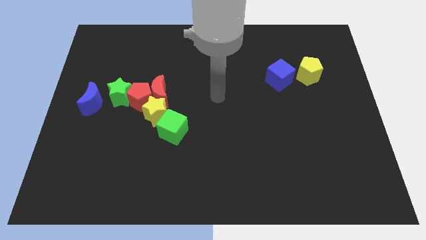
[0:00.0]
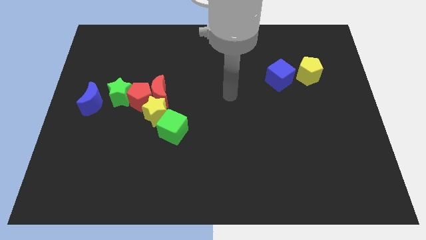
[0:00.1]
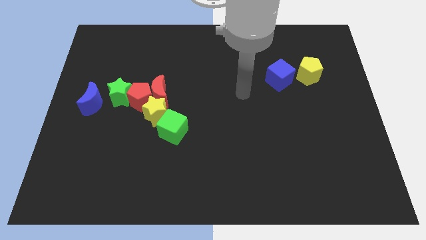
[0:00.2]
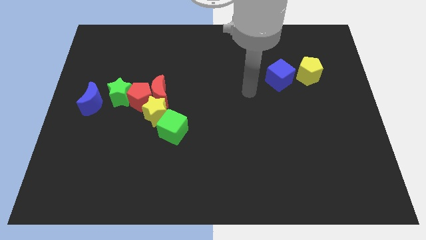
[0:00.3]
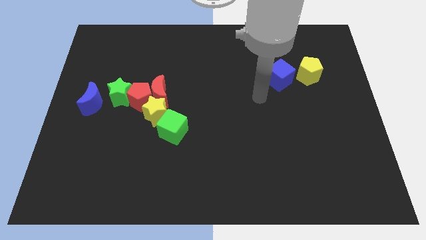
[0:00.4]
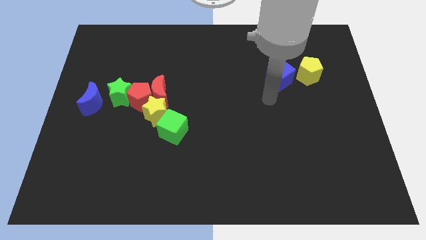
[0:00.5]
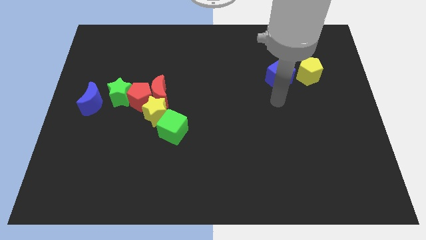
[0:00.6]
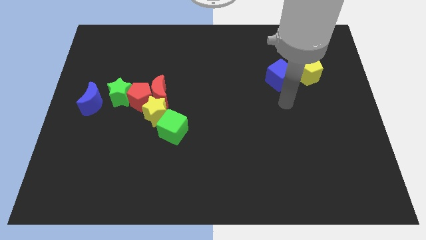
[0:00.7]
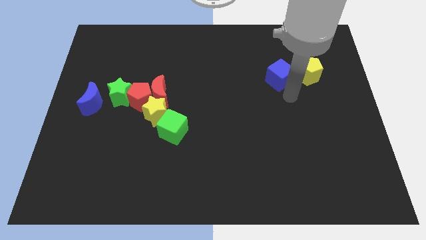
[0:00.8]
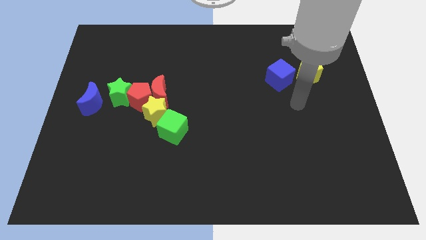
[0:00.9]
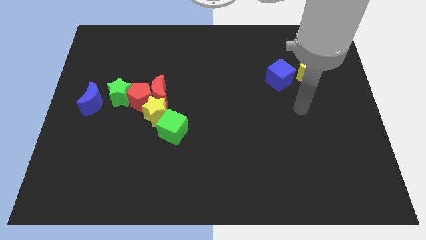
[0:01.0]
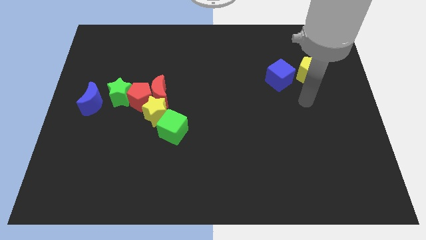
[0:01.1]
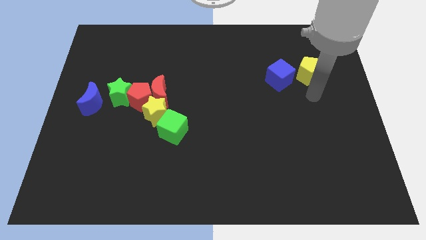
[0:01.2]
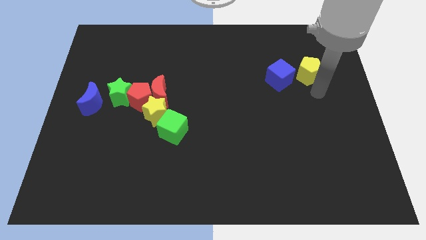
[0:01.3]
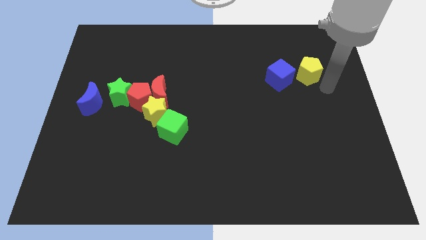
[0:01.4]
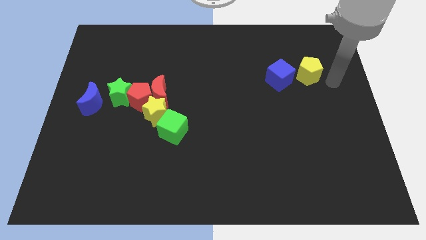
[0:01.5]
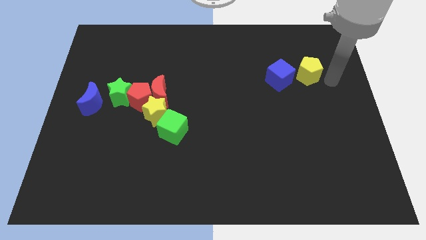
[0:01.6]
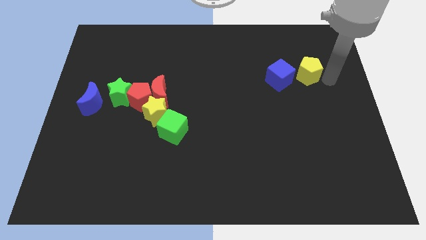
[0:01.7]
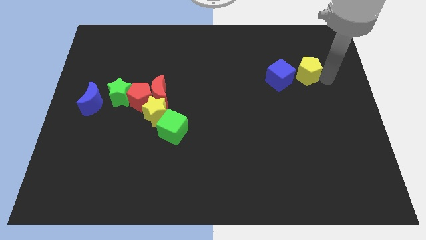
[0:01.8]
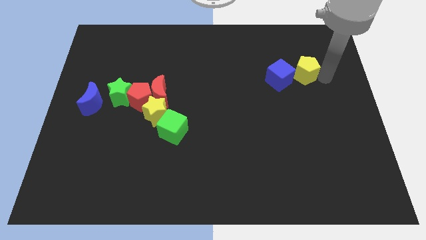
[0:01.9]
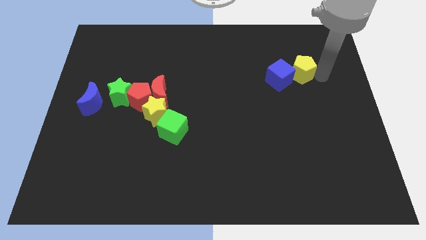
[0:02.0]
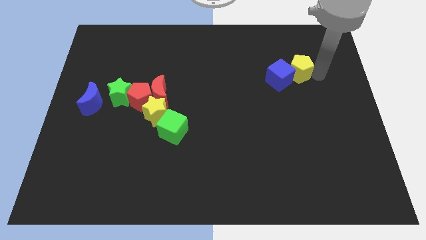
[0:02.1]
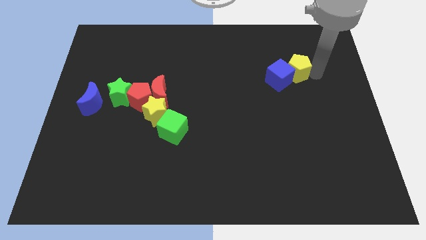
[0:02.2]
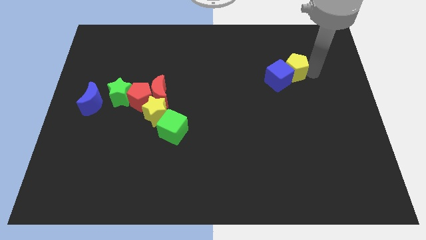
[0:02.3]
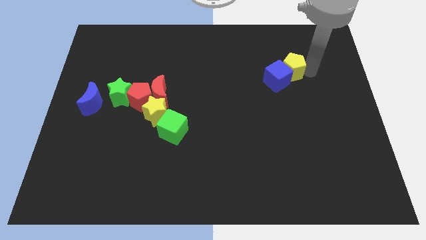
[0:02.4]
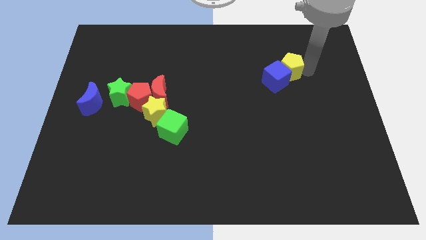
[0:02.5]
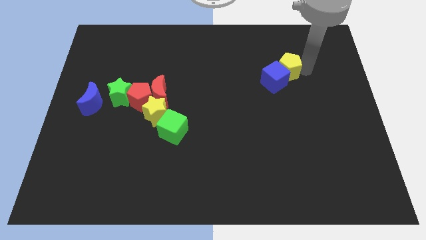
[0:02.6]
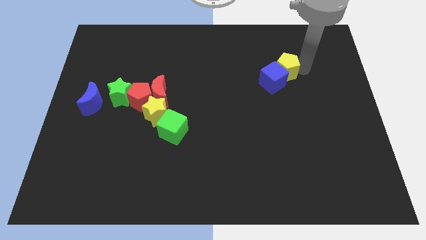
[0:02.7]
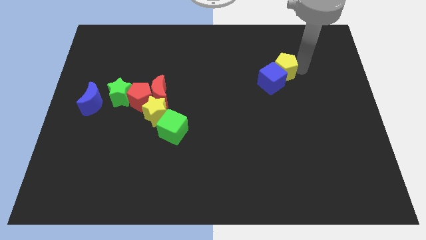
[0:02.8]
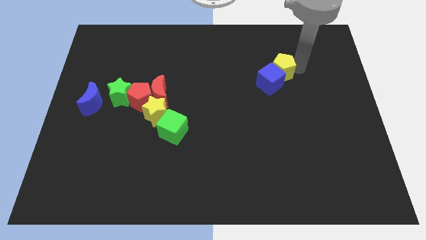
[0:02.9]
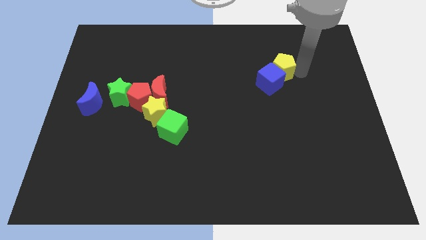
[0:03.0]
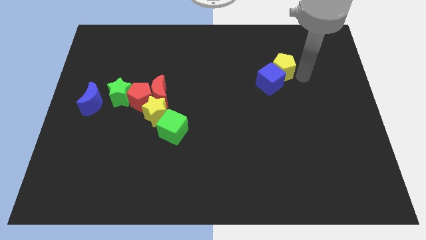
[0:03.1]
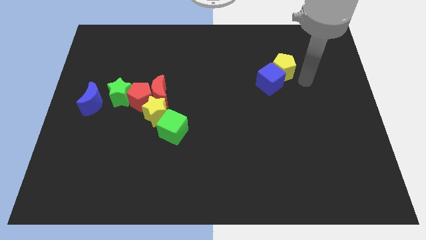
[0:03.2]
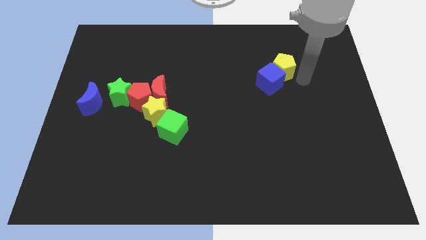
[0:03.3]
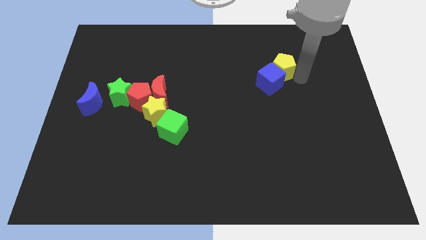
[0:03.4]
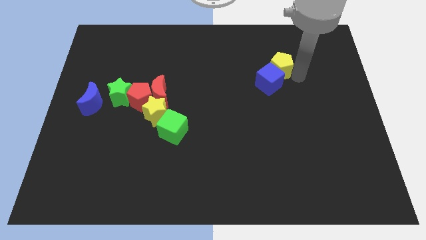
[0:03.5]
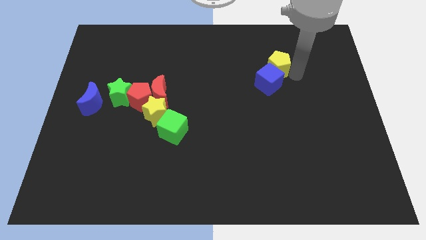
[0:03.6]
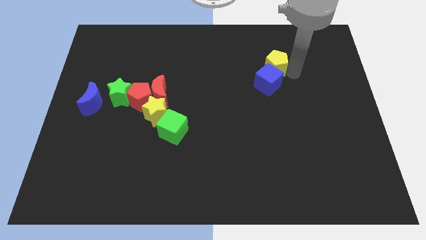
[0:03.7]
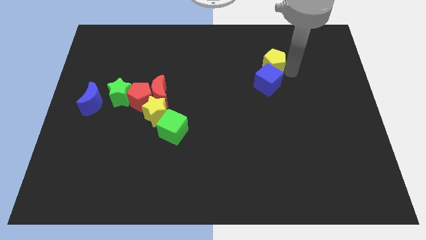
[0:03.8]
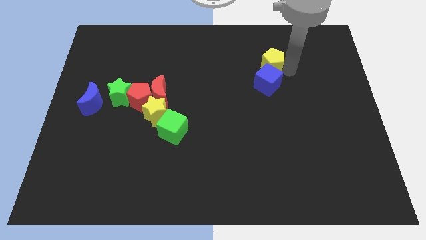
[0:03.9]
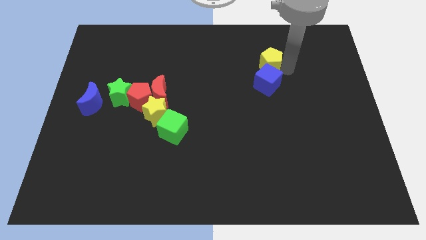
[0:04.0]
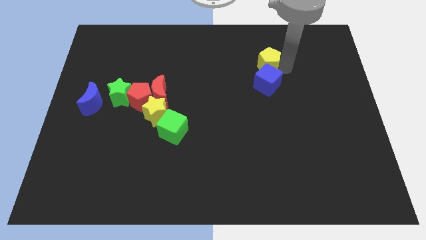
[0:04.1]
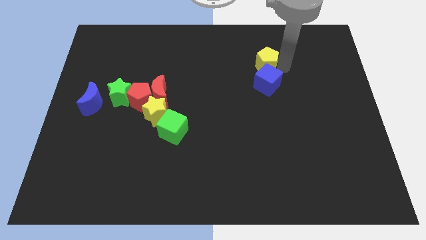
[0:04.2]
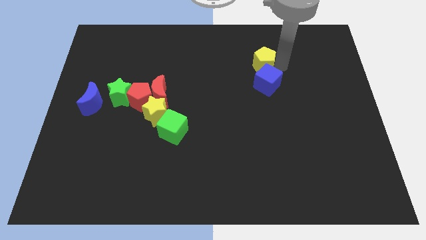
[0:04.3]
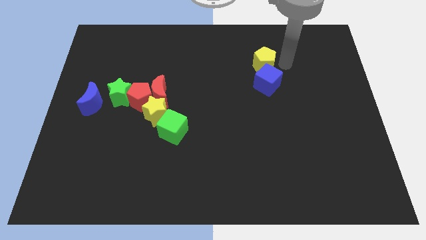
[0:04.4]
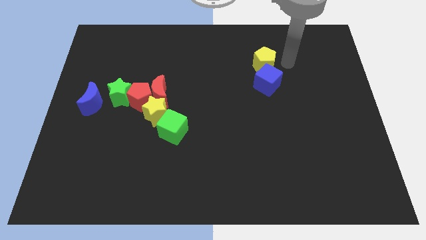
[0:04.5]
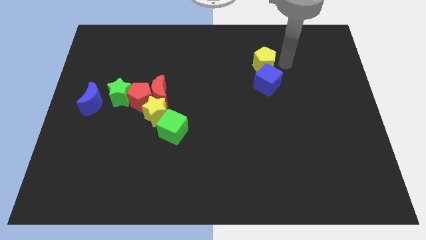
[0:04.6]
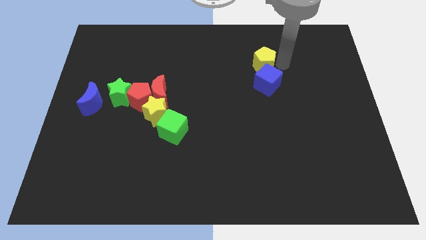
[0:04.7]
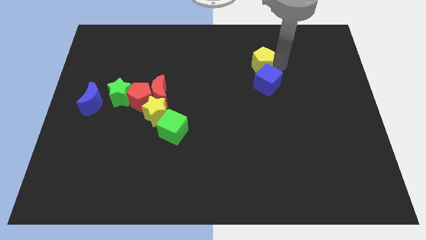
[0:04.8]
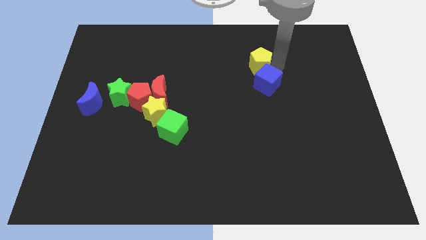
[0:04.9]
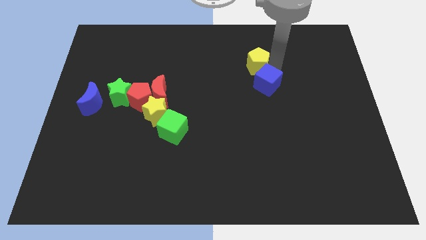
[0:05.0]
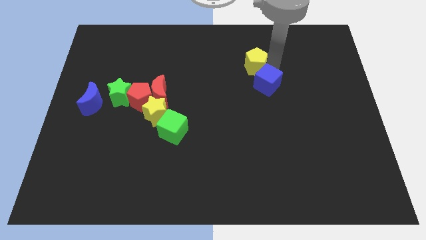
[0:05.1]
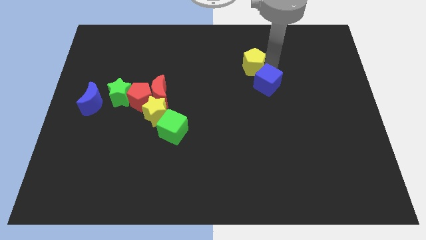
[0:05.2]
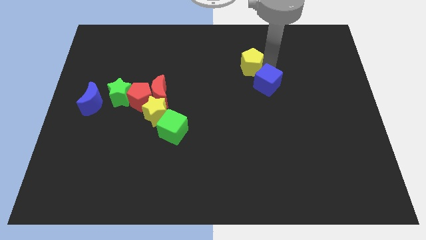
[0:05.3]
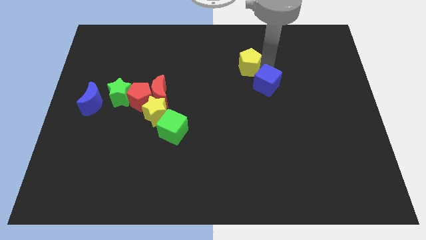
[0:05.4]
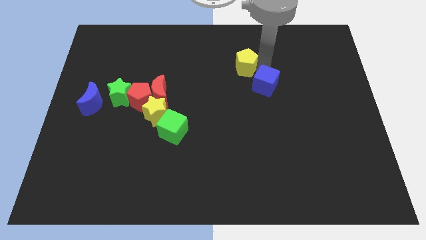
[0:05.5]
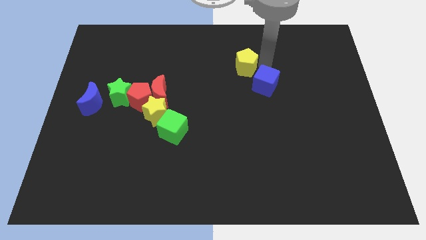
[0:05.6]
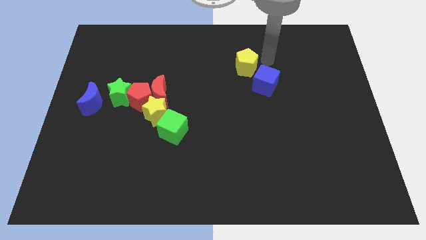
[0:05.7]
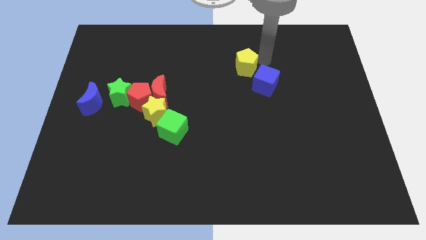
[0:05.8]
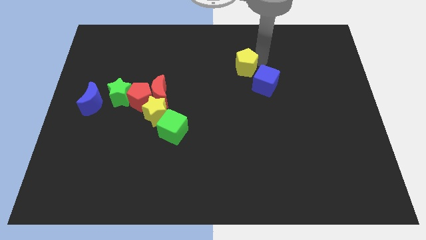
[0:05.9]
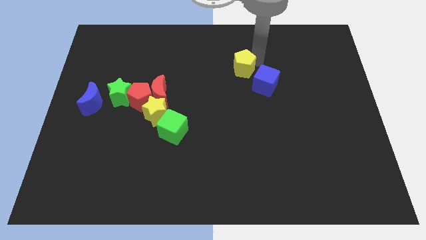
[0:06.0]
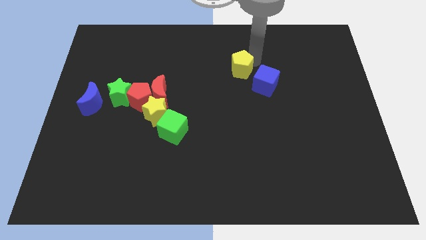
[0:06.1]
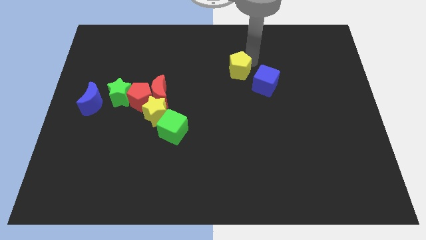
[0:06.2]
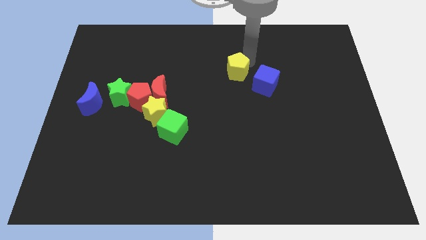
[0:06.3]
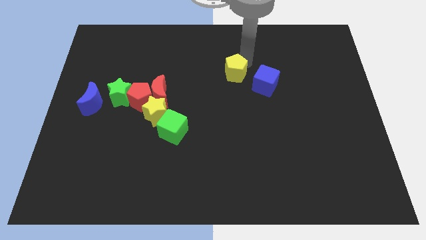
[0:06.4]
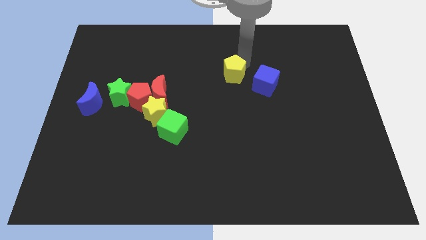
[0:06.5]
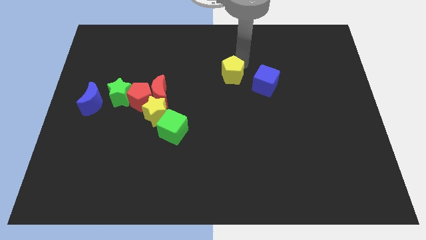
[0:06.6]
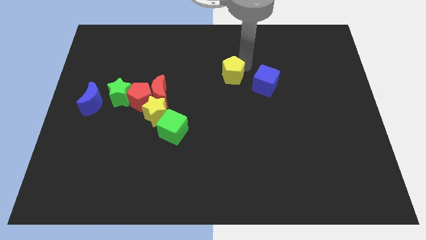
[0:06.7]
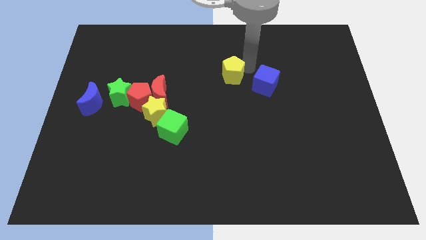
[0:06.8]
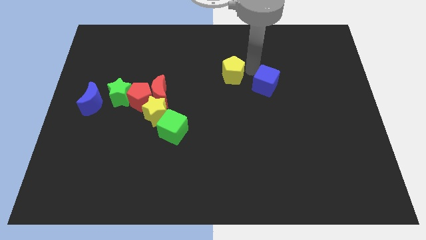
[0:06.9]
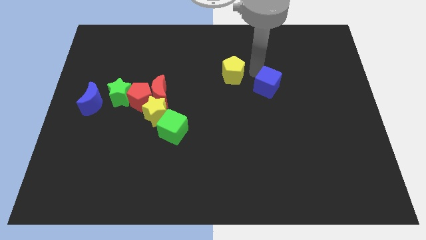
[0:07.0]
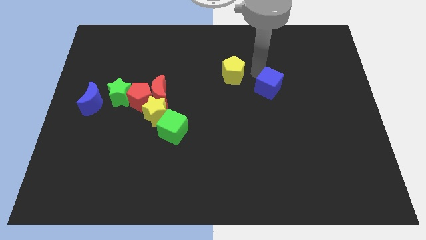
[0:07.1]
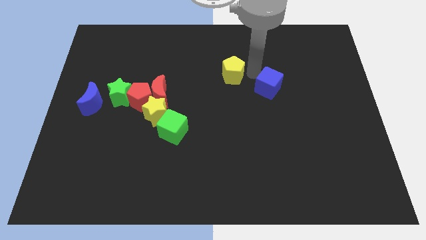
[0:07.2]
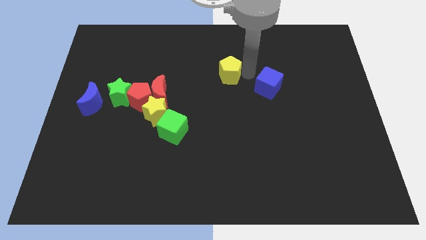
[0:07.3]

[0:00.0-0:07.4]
slide the yellow pentagon left

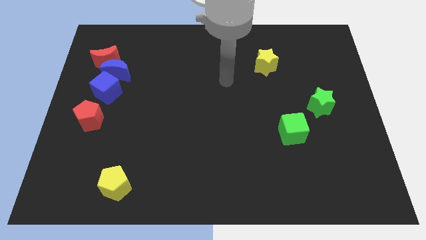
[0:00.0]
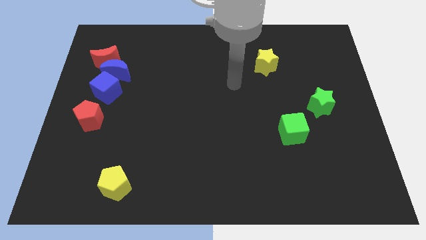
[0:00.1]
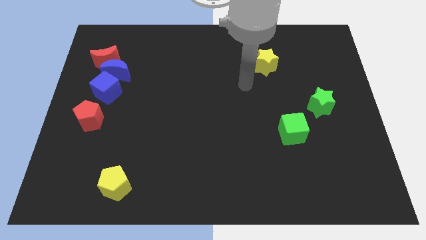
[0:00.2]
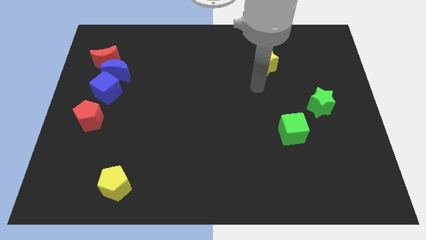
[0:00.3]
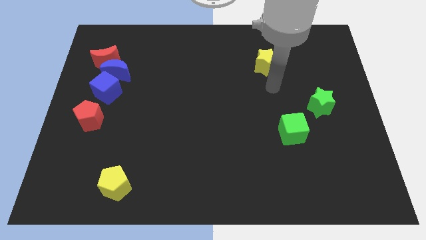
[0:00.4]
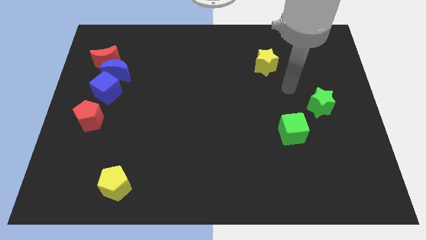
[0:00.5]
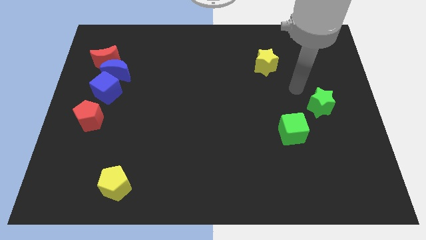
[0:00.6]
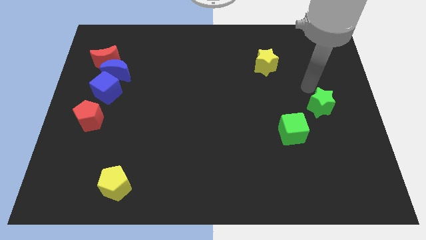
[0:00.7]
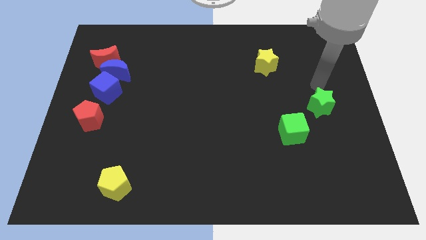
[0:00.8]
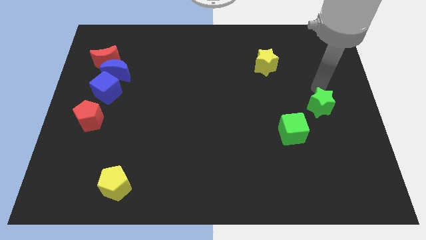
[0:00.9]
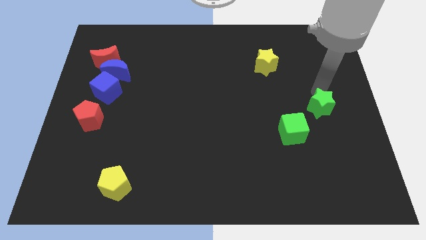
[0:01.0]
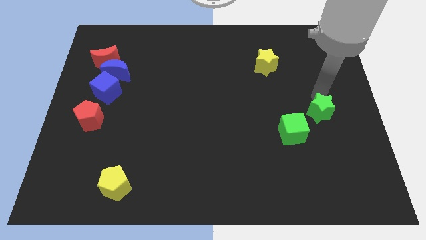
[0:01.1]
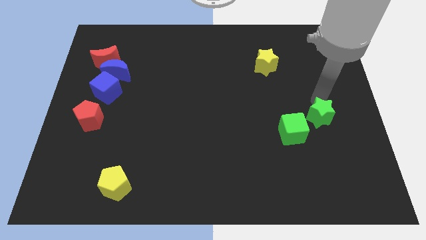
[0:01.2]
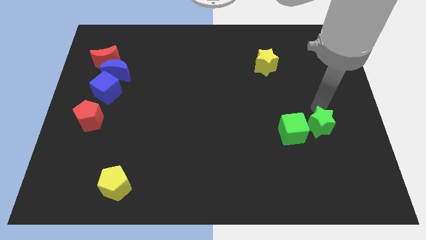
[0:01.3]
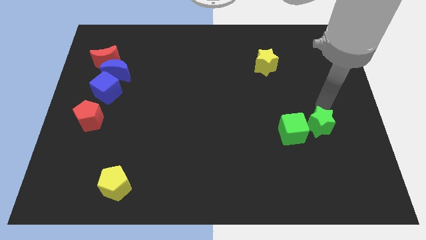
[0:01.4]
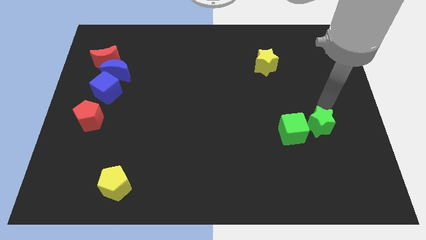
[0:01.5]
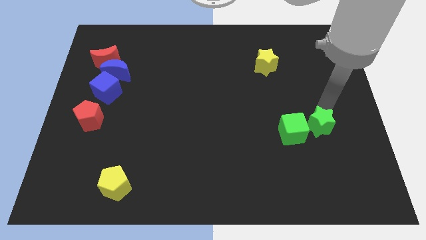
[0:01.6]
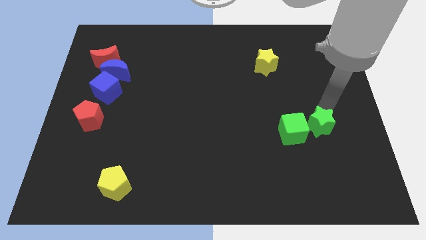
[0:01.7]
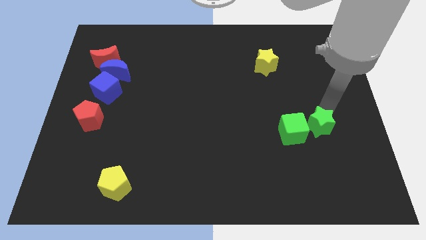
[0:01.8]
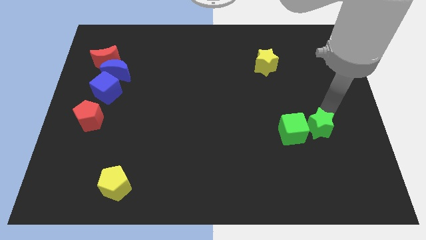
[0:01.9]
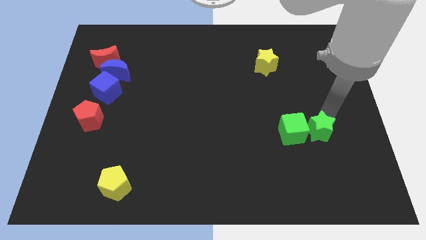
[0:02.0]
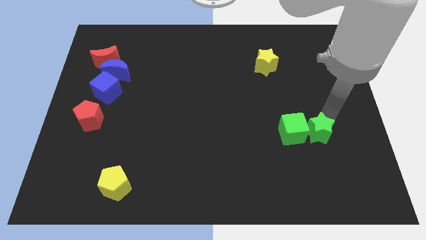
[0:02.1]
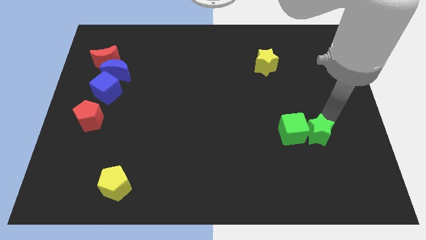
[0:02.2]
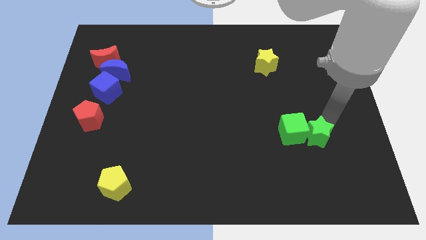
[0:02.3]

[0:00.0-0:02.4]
slightly slide the green star diagonally downwards and to the left
